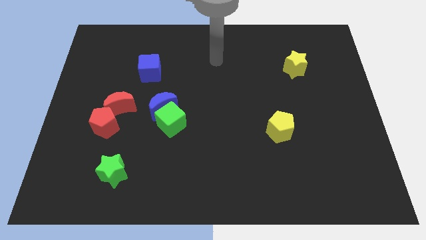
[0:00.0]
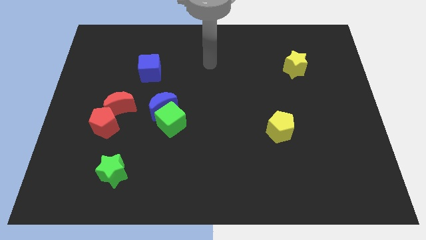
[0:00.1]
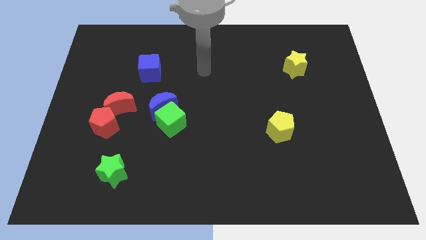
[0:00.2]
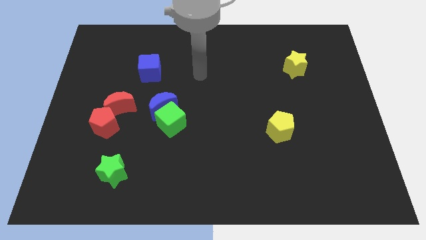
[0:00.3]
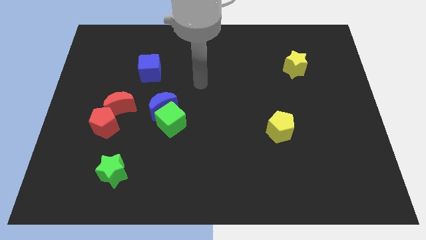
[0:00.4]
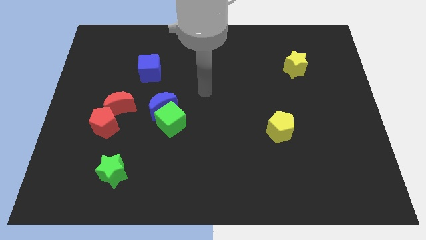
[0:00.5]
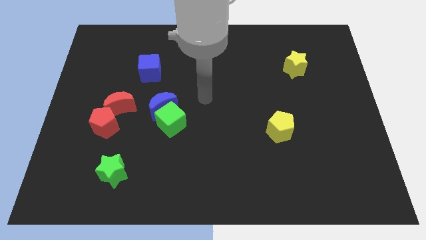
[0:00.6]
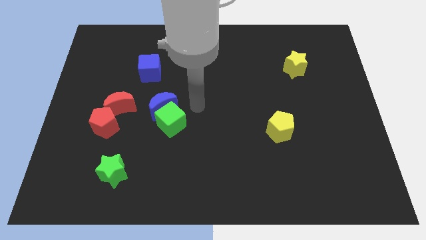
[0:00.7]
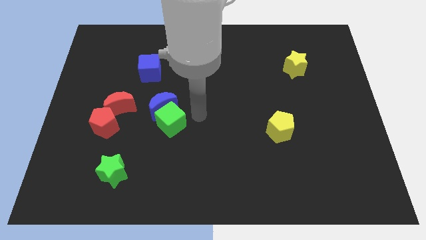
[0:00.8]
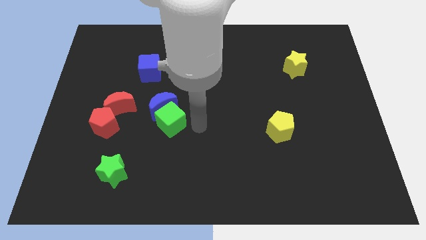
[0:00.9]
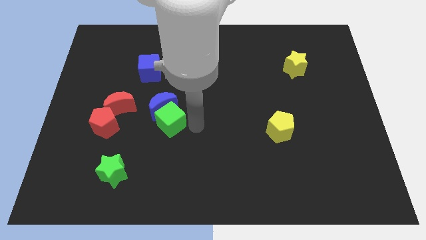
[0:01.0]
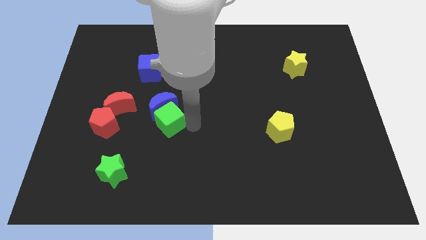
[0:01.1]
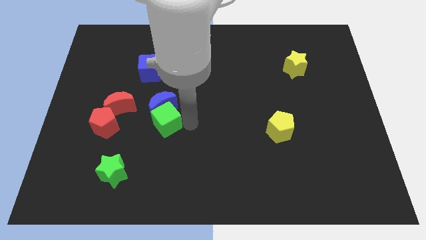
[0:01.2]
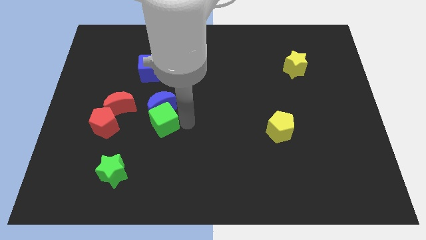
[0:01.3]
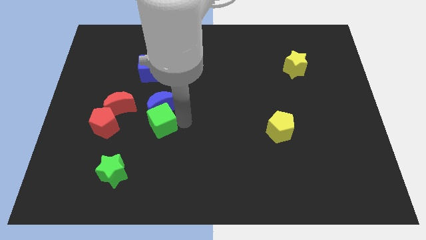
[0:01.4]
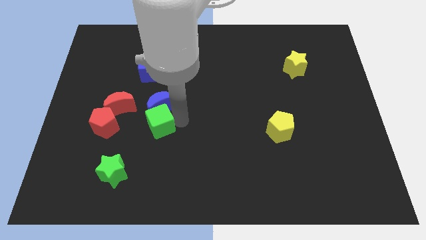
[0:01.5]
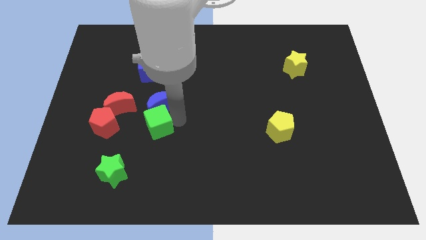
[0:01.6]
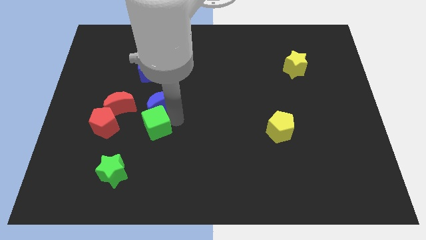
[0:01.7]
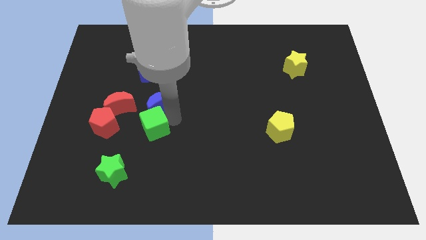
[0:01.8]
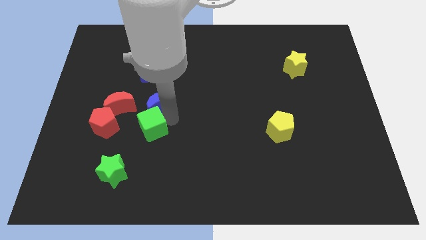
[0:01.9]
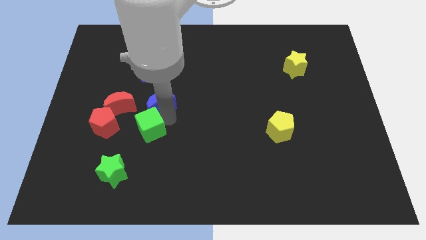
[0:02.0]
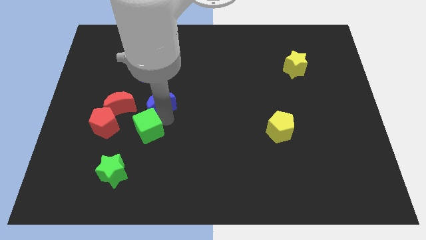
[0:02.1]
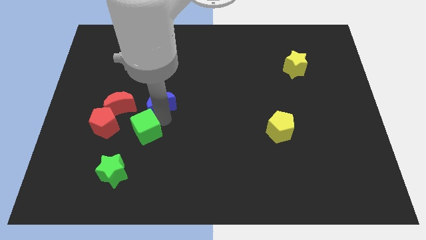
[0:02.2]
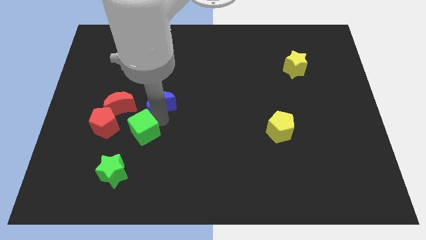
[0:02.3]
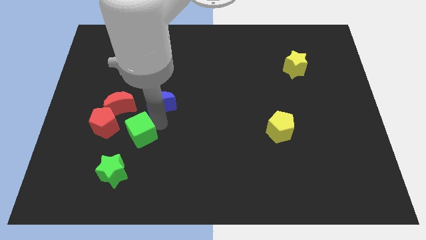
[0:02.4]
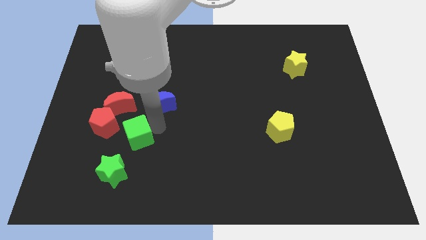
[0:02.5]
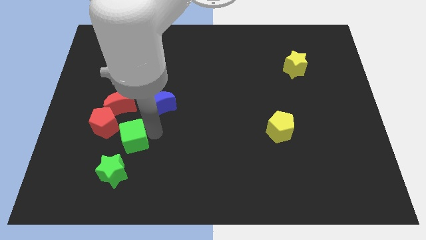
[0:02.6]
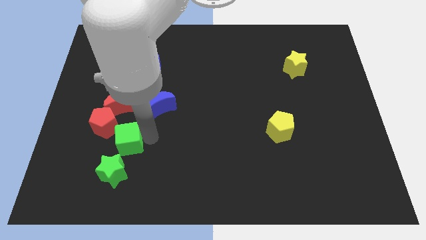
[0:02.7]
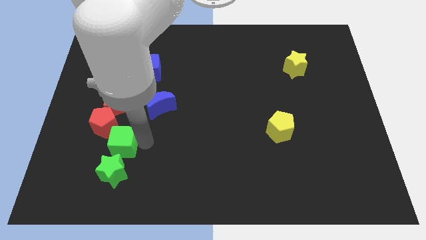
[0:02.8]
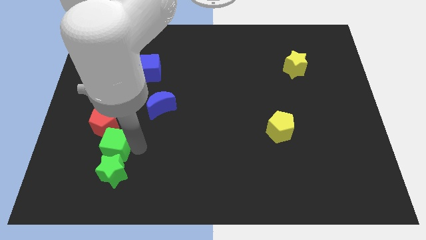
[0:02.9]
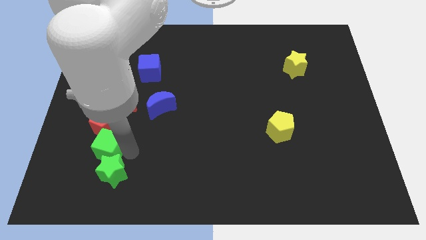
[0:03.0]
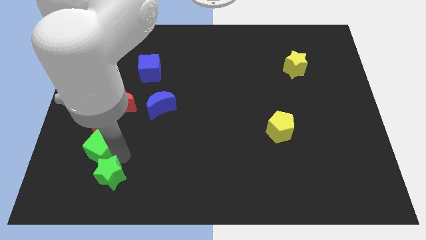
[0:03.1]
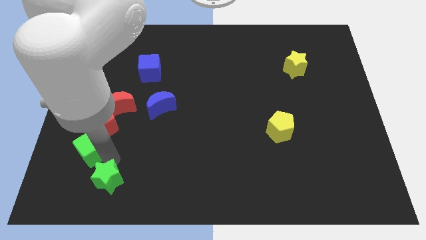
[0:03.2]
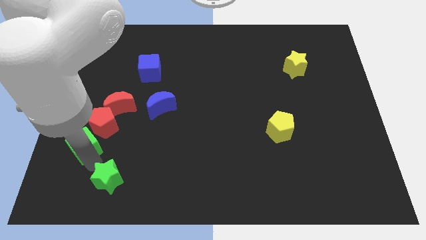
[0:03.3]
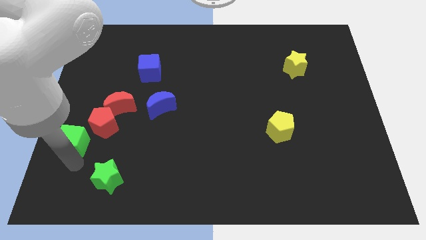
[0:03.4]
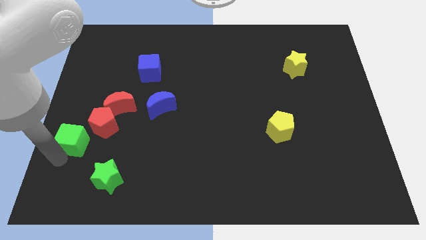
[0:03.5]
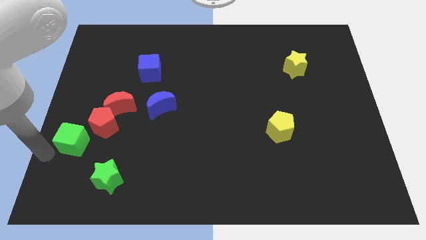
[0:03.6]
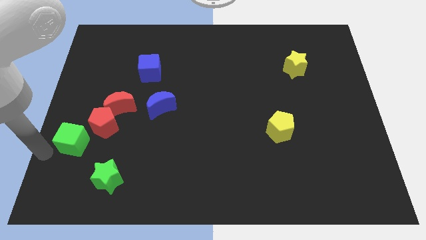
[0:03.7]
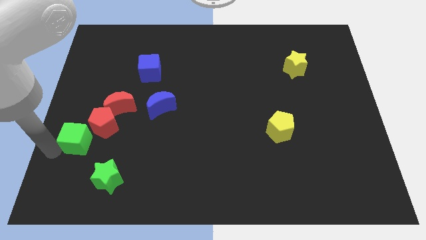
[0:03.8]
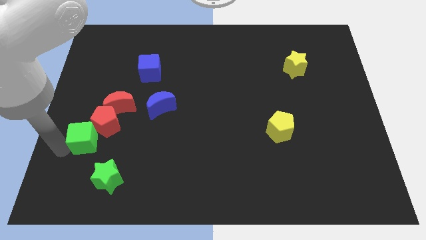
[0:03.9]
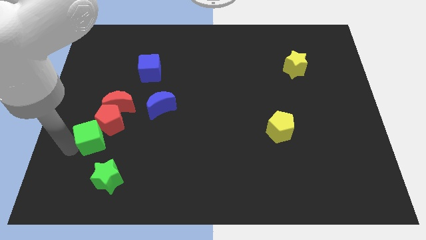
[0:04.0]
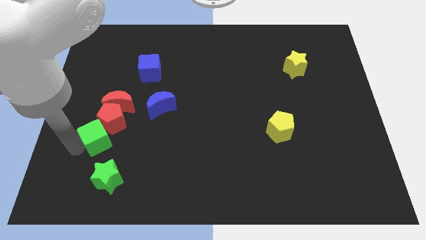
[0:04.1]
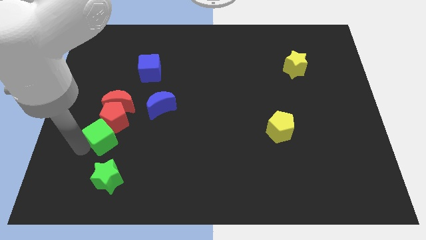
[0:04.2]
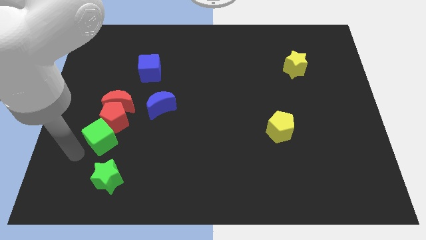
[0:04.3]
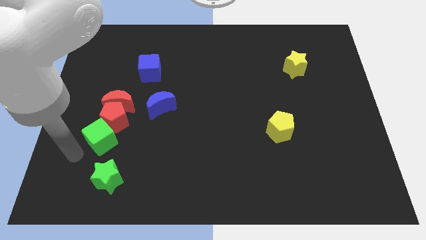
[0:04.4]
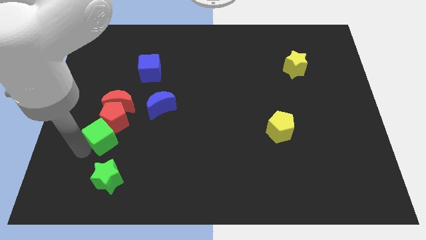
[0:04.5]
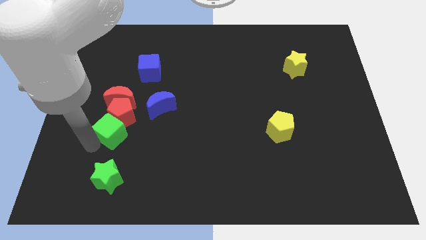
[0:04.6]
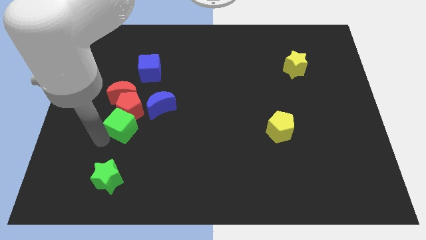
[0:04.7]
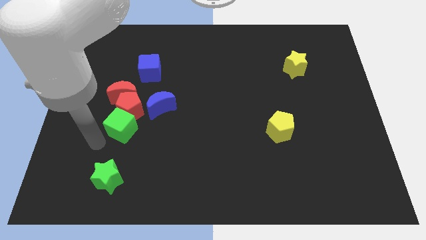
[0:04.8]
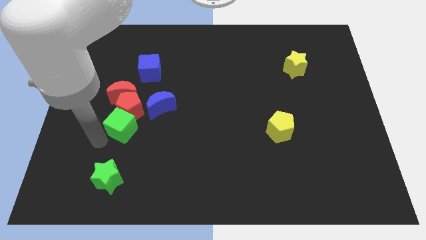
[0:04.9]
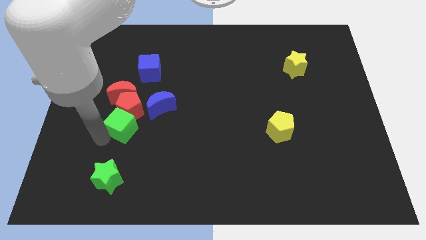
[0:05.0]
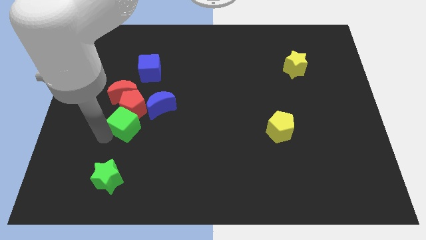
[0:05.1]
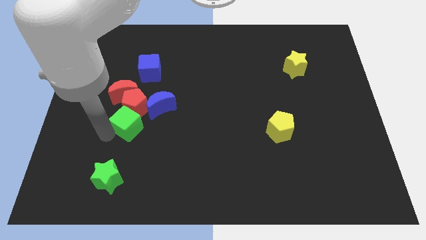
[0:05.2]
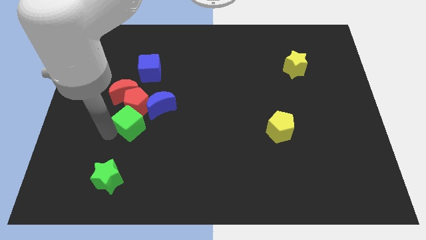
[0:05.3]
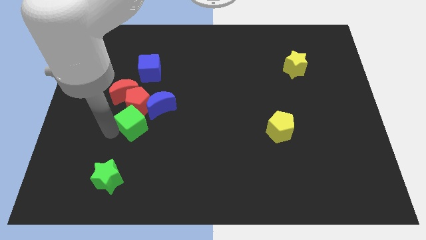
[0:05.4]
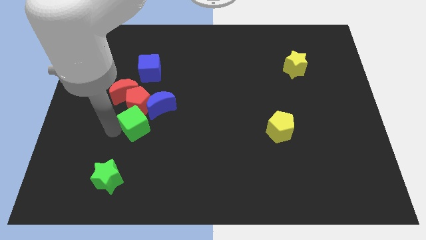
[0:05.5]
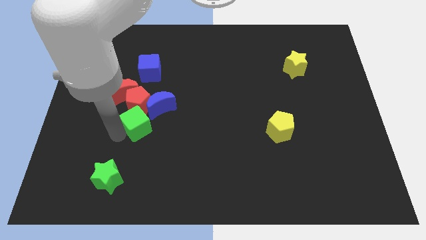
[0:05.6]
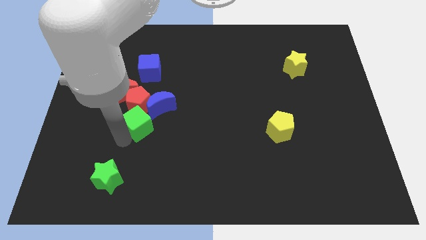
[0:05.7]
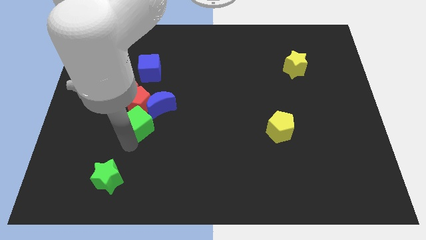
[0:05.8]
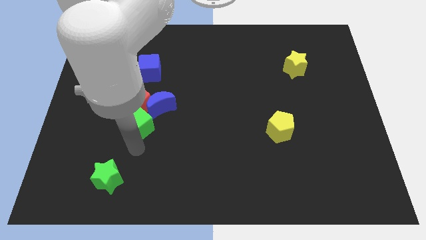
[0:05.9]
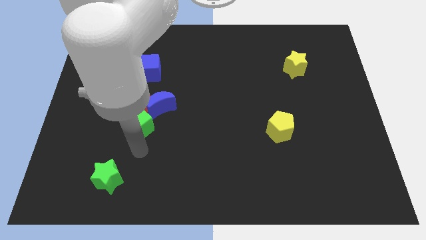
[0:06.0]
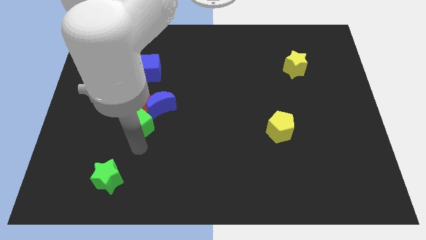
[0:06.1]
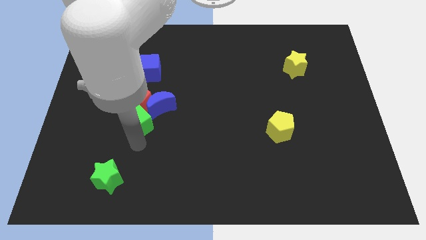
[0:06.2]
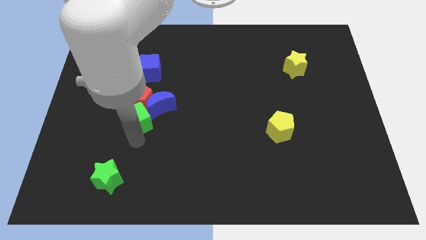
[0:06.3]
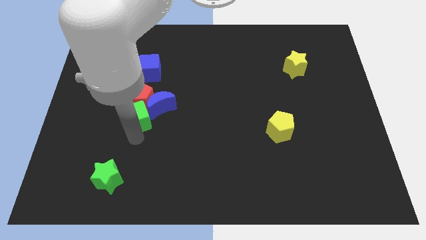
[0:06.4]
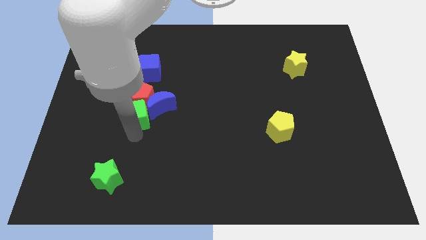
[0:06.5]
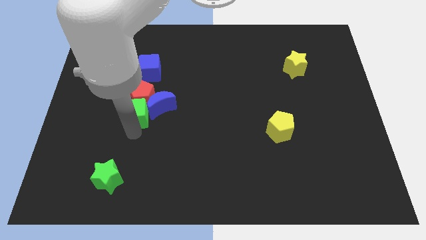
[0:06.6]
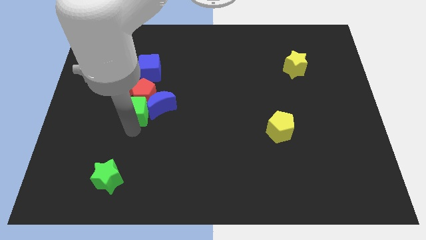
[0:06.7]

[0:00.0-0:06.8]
move the green cube upwards and to the left slightly

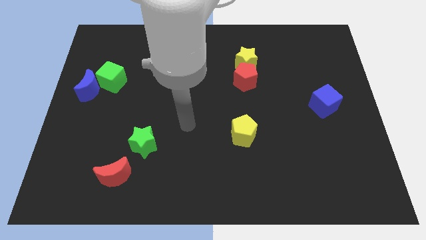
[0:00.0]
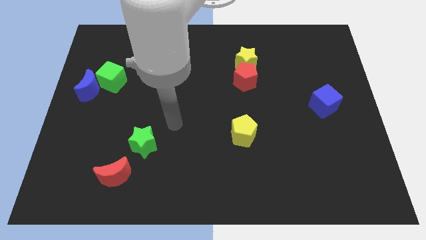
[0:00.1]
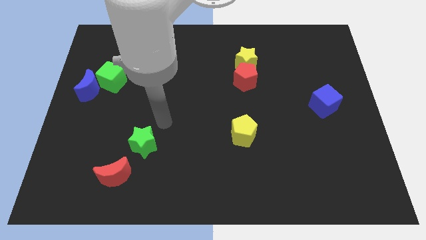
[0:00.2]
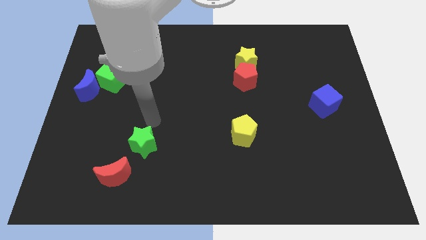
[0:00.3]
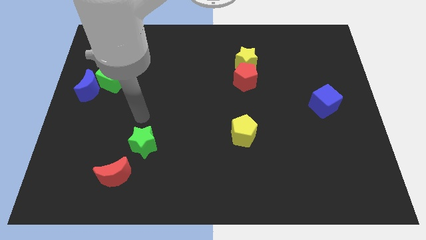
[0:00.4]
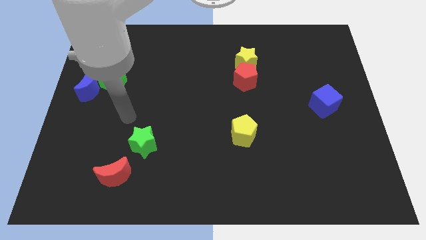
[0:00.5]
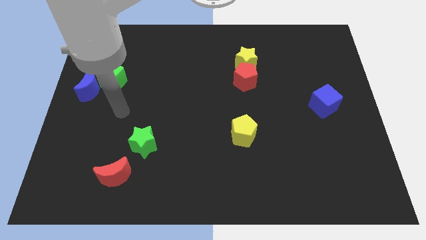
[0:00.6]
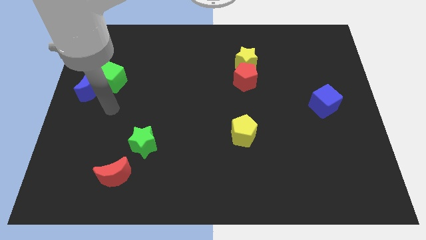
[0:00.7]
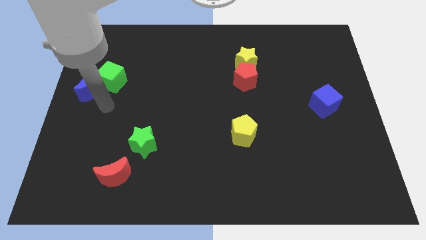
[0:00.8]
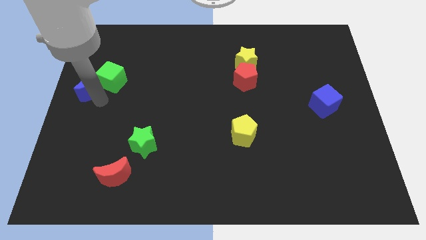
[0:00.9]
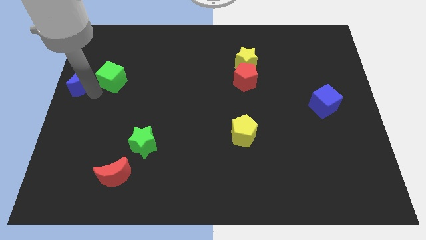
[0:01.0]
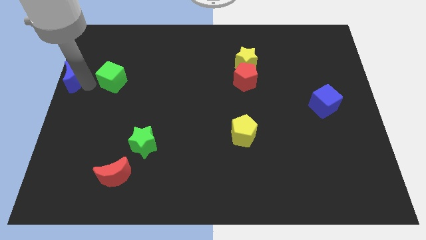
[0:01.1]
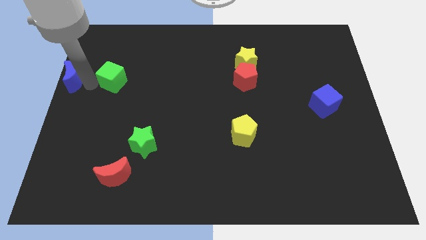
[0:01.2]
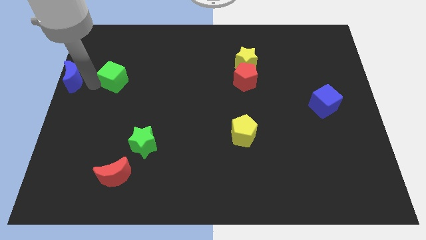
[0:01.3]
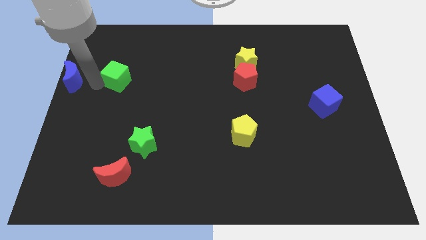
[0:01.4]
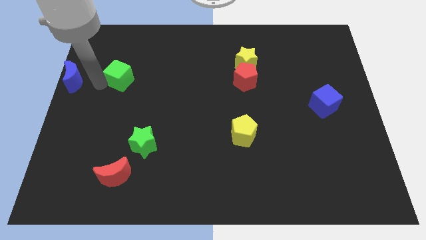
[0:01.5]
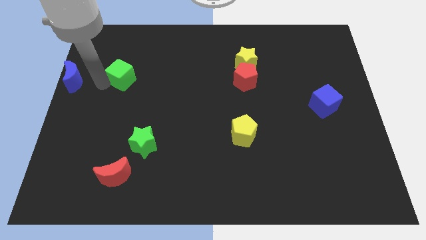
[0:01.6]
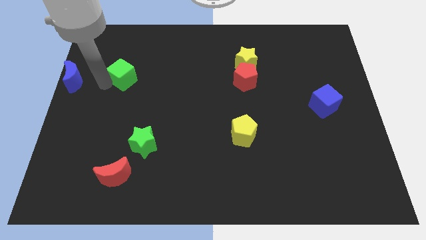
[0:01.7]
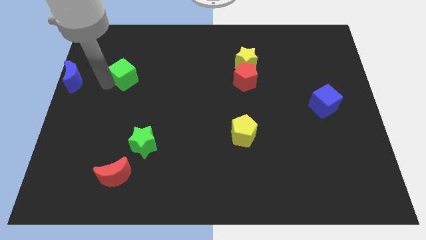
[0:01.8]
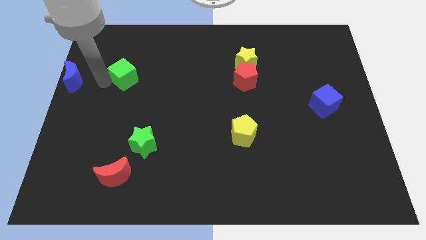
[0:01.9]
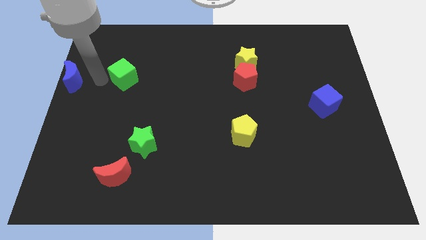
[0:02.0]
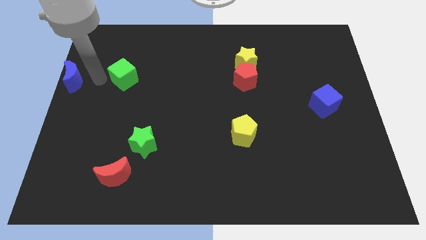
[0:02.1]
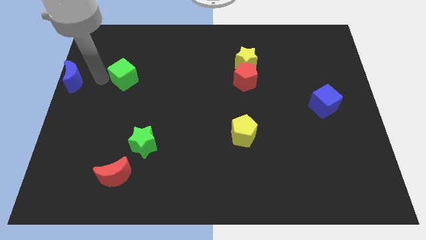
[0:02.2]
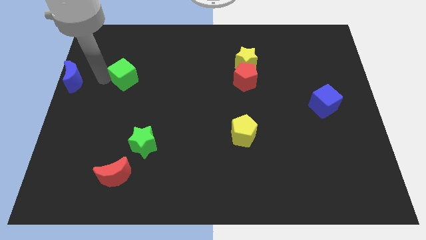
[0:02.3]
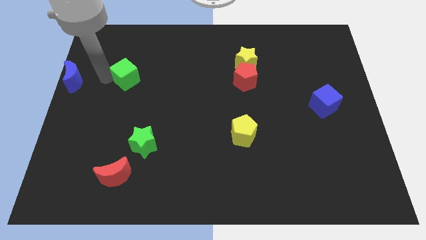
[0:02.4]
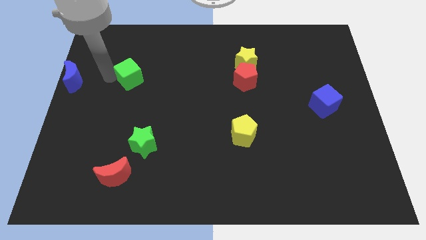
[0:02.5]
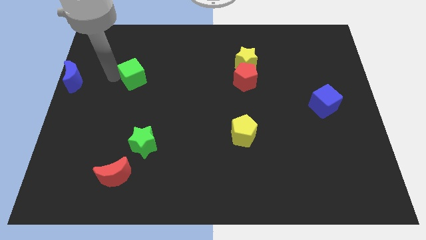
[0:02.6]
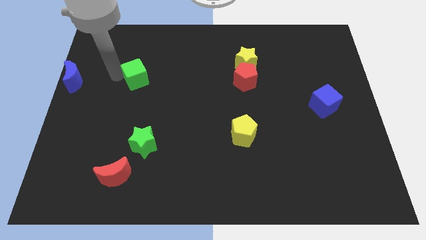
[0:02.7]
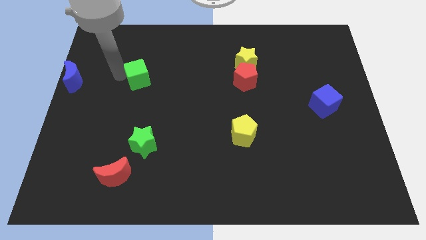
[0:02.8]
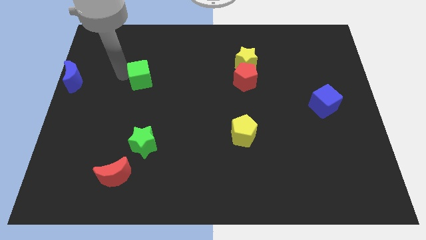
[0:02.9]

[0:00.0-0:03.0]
slide the green cube right a bit
